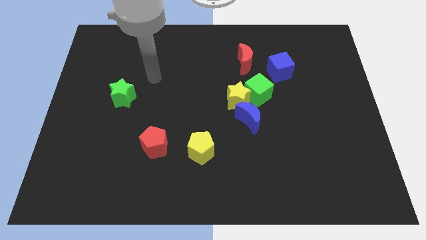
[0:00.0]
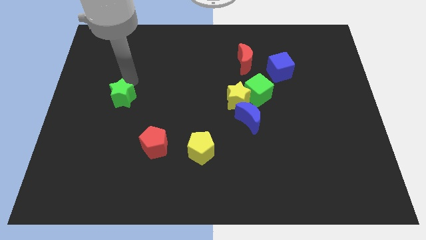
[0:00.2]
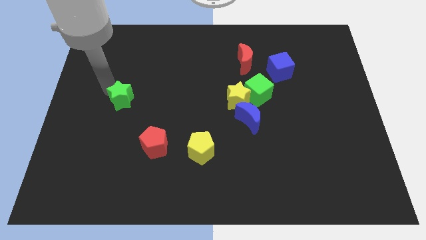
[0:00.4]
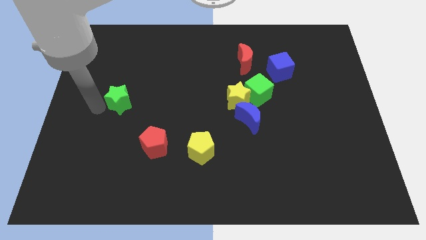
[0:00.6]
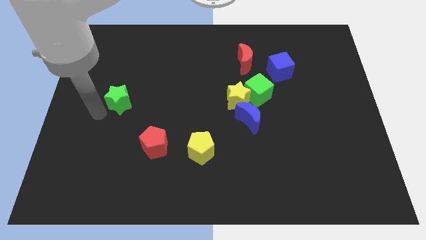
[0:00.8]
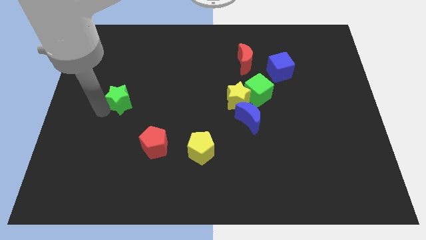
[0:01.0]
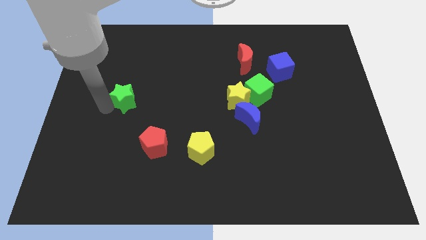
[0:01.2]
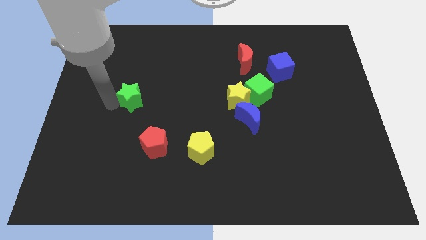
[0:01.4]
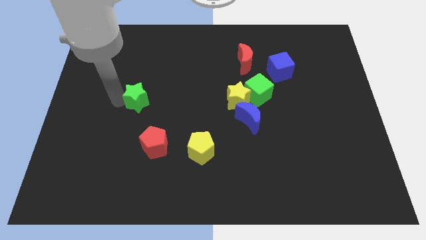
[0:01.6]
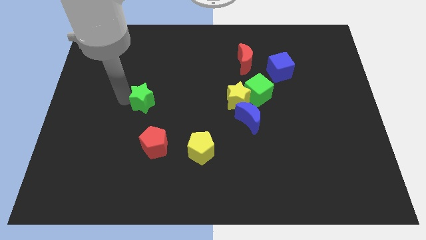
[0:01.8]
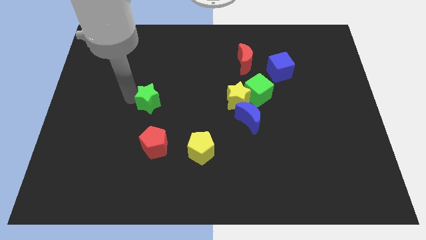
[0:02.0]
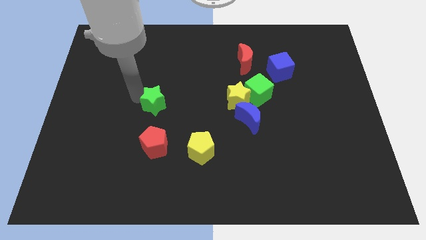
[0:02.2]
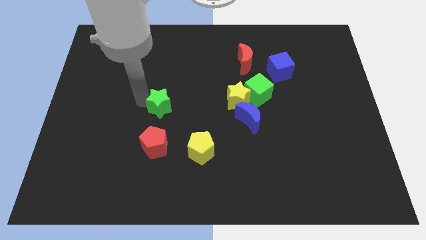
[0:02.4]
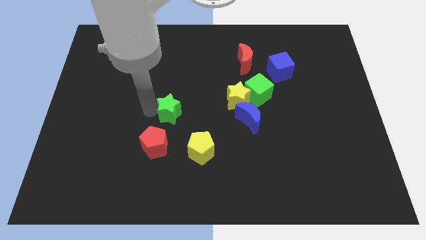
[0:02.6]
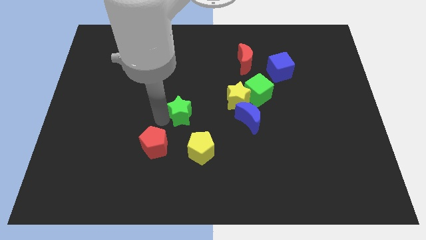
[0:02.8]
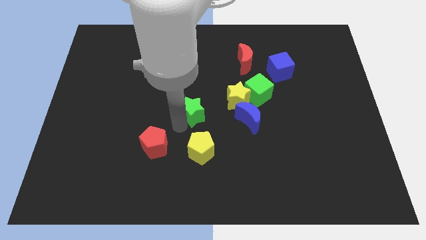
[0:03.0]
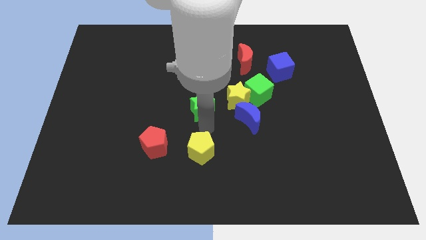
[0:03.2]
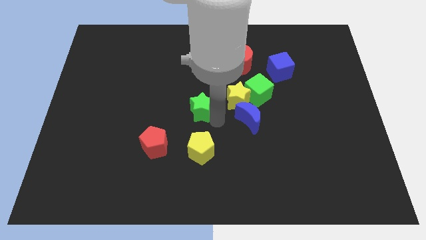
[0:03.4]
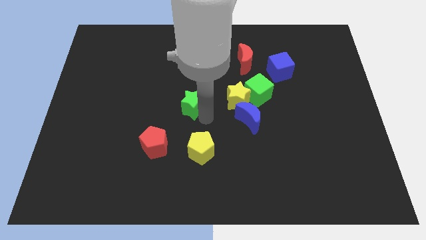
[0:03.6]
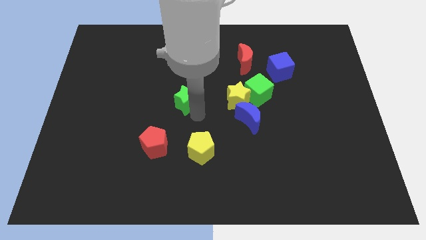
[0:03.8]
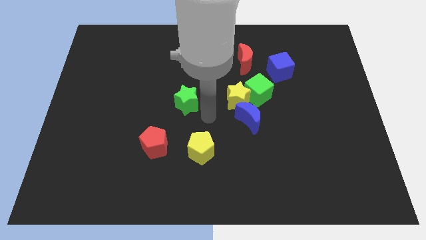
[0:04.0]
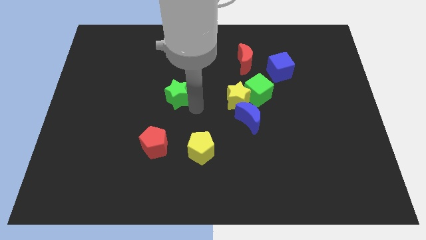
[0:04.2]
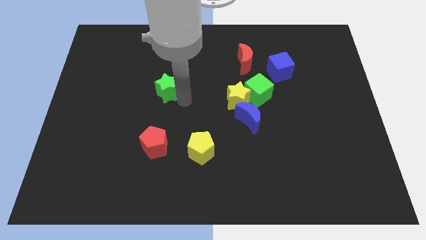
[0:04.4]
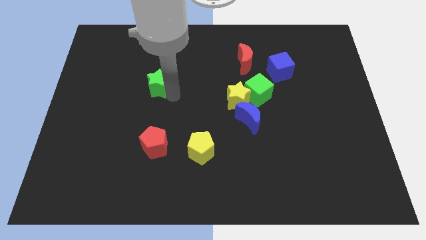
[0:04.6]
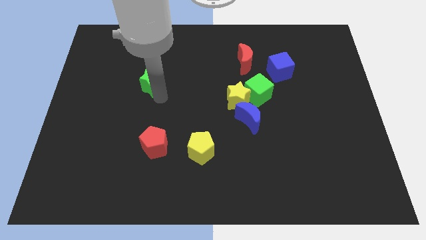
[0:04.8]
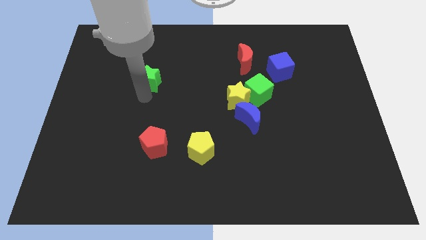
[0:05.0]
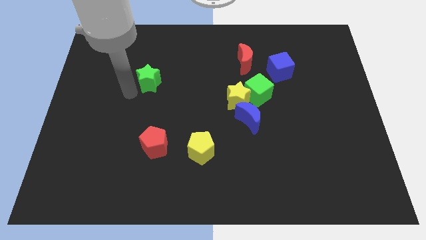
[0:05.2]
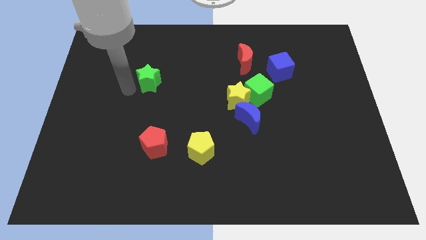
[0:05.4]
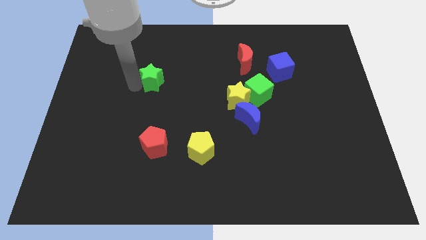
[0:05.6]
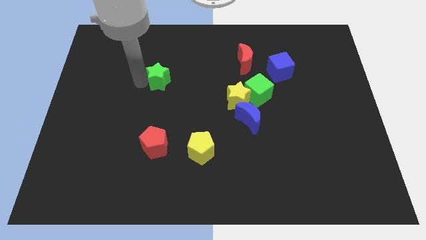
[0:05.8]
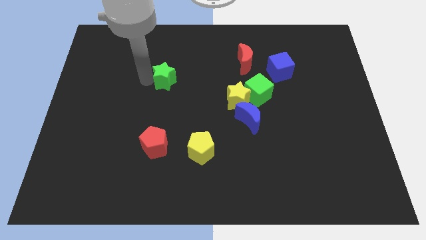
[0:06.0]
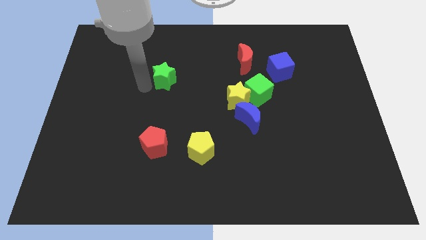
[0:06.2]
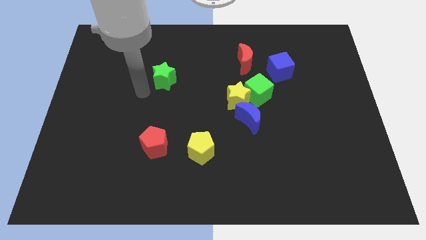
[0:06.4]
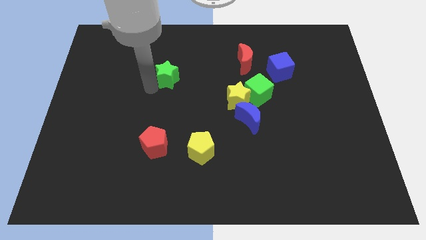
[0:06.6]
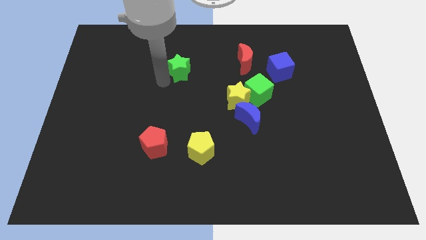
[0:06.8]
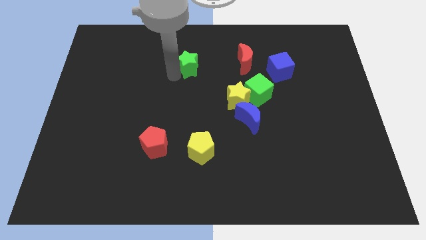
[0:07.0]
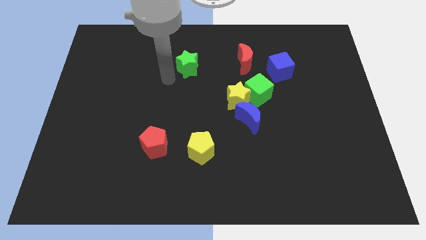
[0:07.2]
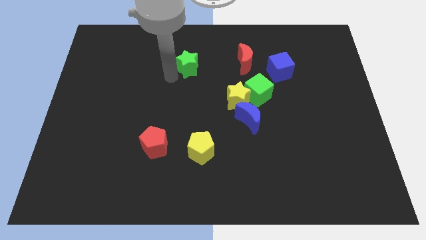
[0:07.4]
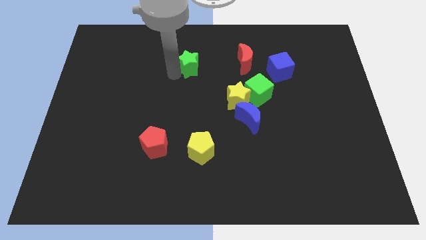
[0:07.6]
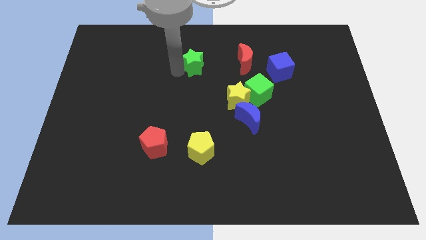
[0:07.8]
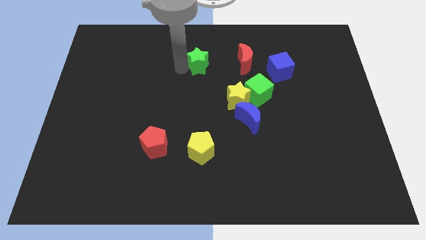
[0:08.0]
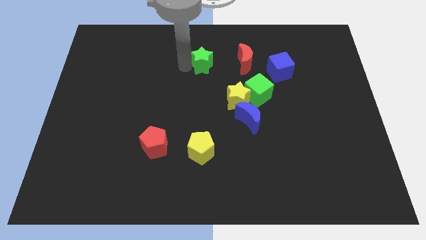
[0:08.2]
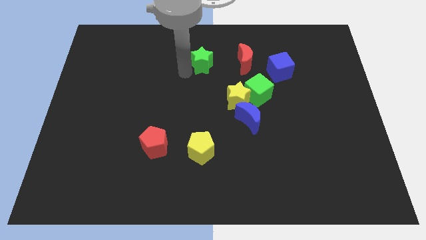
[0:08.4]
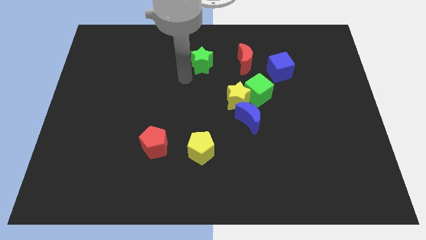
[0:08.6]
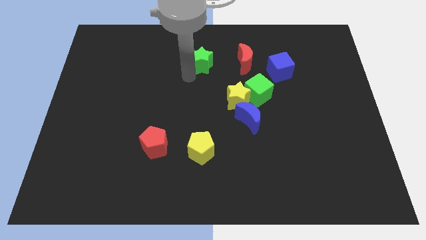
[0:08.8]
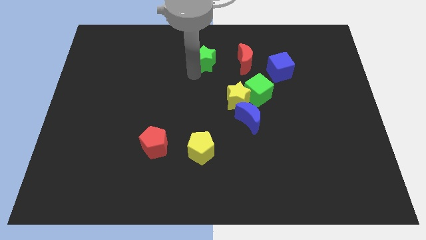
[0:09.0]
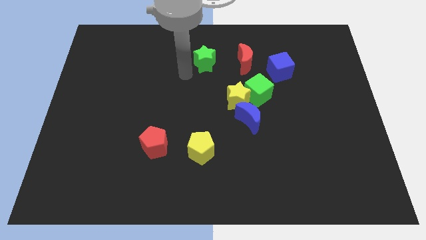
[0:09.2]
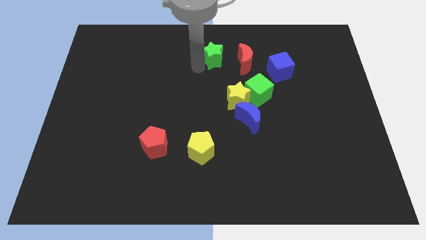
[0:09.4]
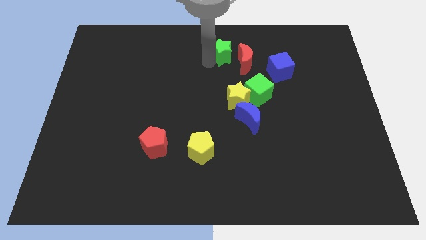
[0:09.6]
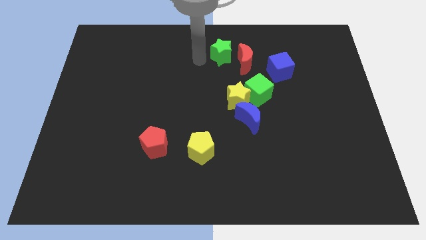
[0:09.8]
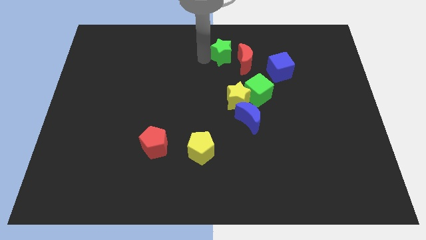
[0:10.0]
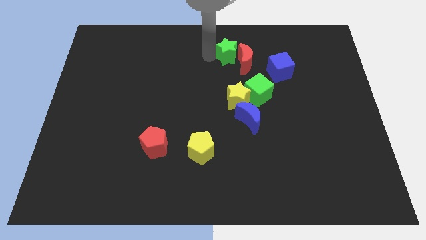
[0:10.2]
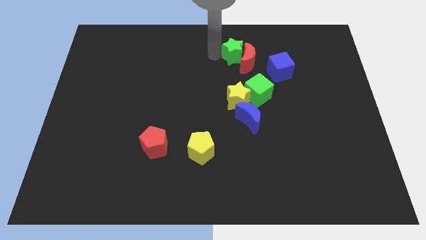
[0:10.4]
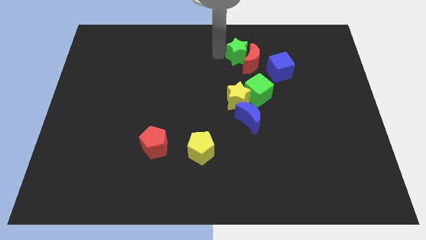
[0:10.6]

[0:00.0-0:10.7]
slide the green star to the top left of the blue cube

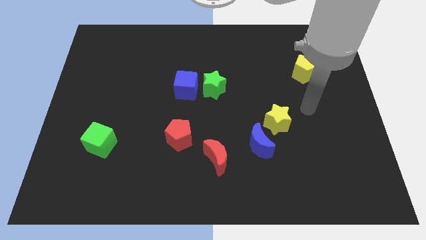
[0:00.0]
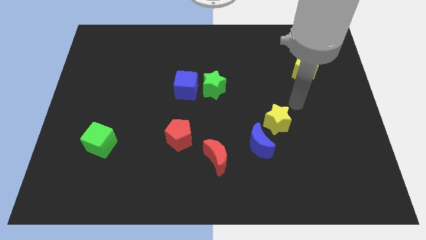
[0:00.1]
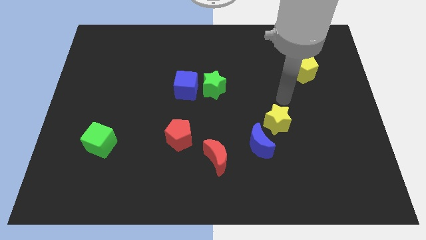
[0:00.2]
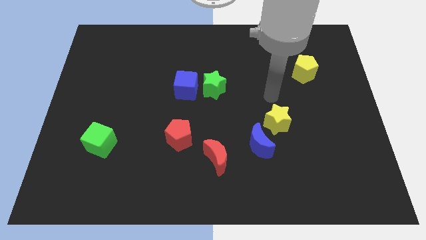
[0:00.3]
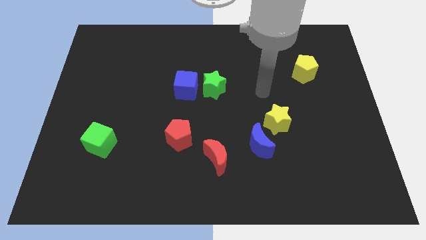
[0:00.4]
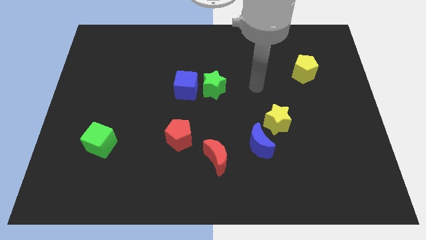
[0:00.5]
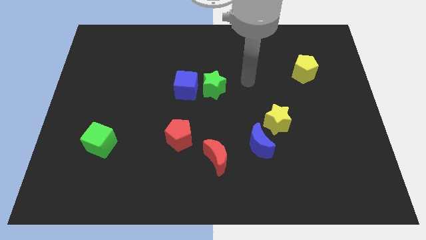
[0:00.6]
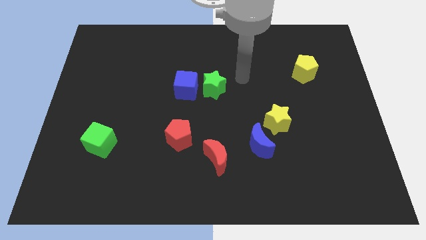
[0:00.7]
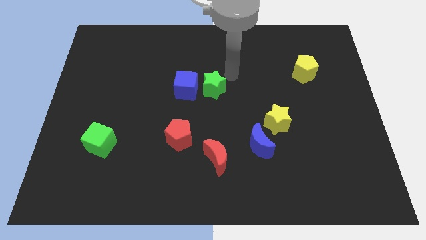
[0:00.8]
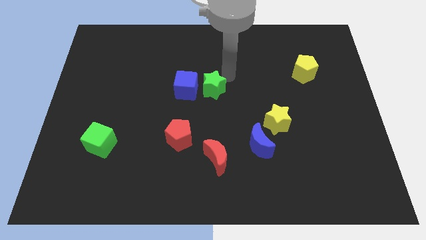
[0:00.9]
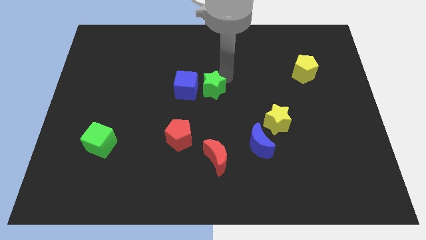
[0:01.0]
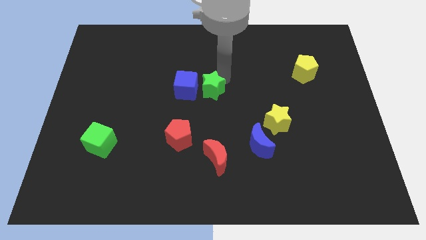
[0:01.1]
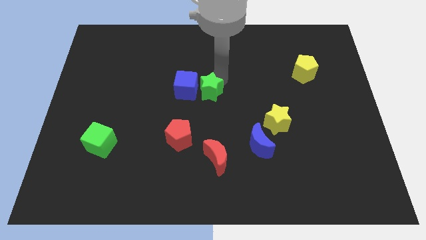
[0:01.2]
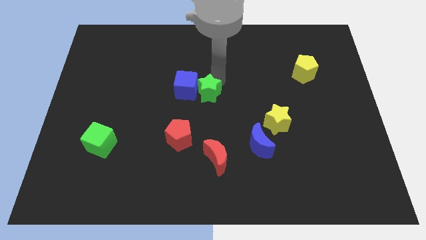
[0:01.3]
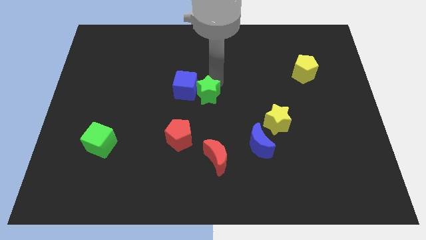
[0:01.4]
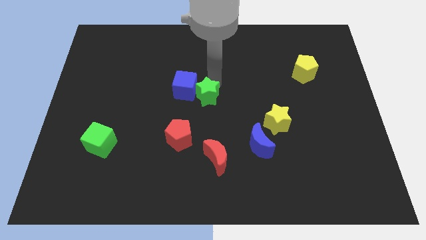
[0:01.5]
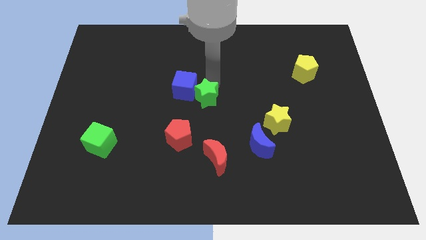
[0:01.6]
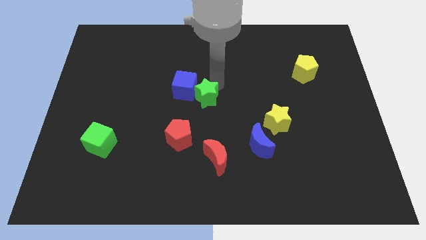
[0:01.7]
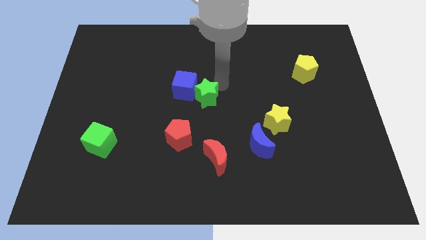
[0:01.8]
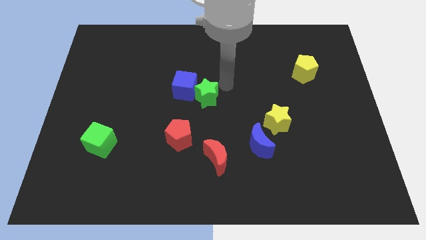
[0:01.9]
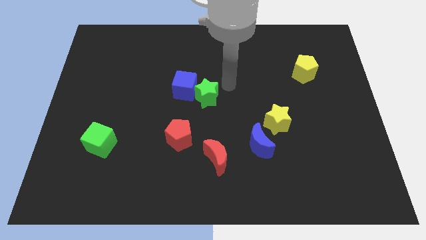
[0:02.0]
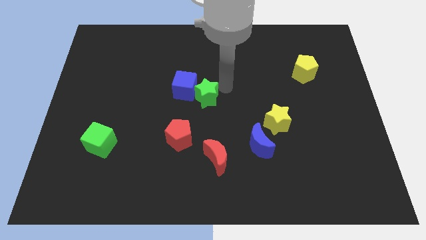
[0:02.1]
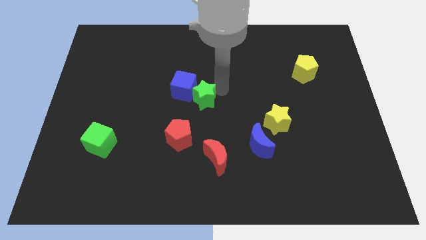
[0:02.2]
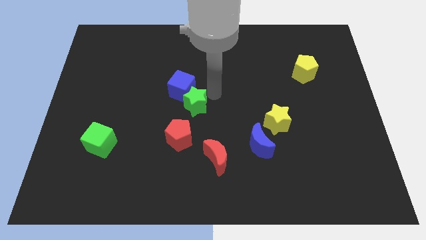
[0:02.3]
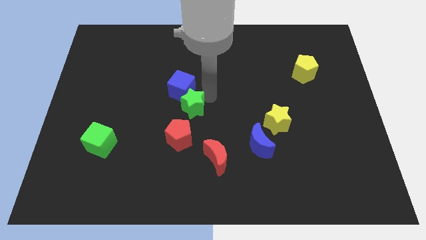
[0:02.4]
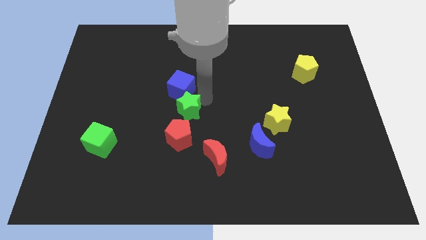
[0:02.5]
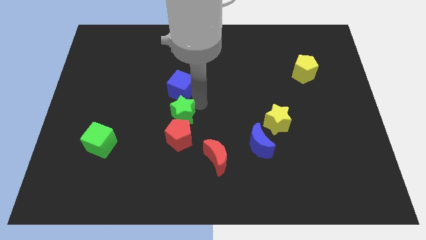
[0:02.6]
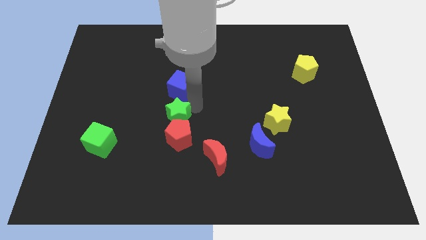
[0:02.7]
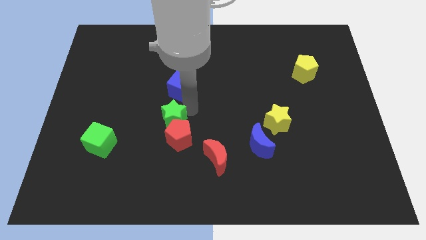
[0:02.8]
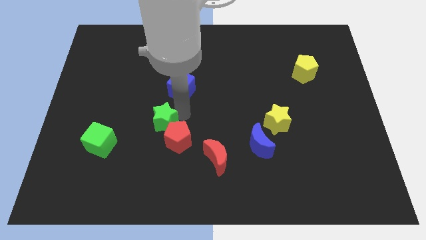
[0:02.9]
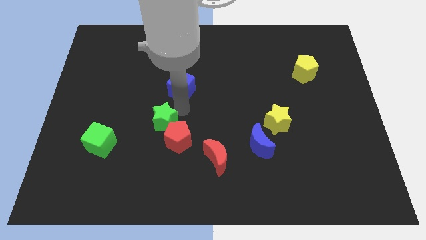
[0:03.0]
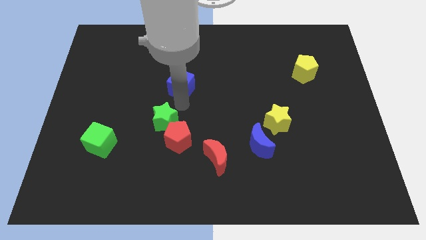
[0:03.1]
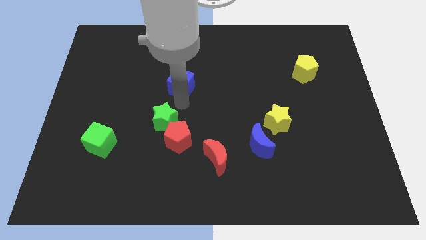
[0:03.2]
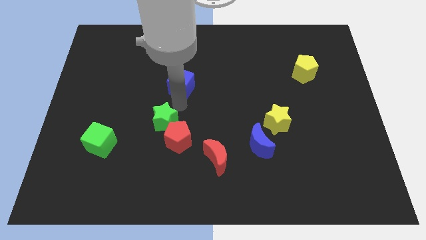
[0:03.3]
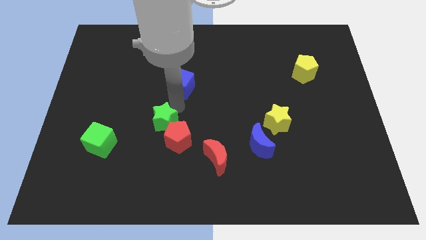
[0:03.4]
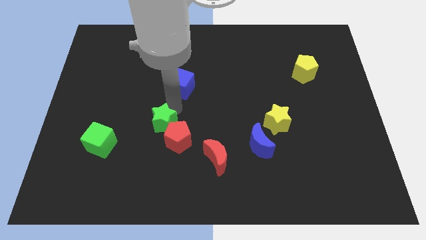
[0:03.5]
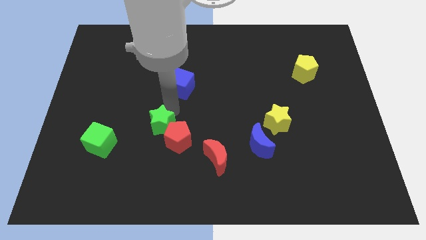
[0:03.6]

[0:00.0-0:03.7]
put the green star to the right side of the green cube
